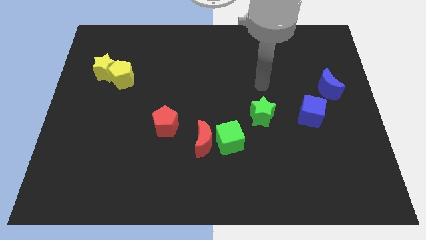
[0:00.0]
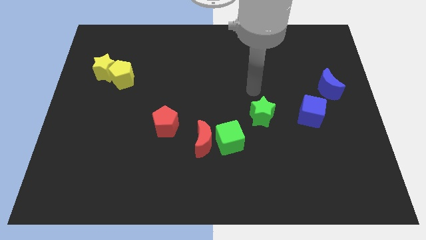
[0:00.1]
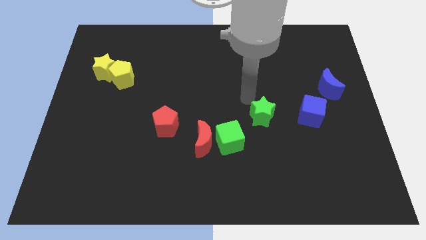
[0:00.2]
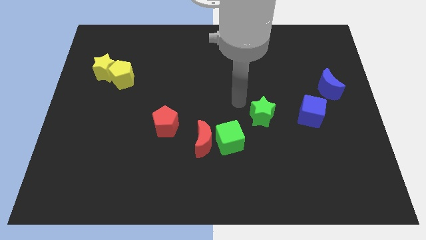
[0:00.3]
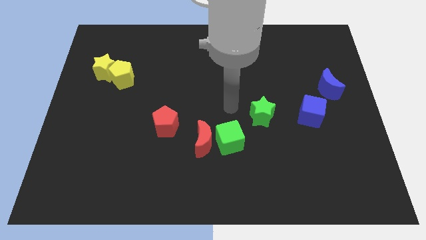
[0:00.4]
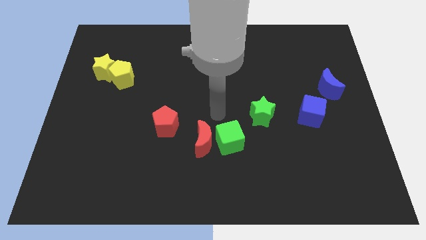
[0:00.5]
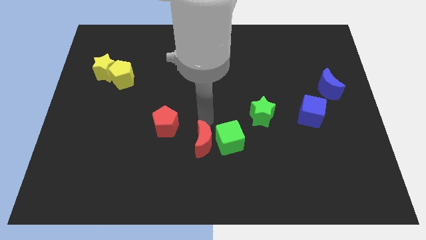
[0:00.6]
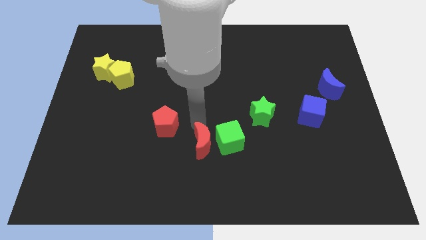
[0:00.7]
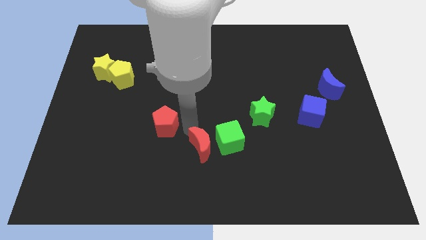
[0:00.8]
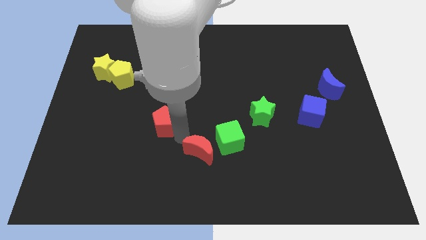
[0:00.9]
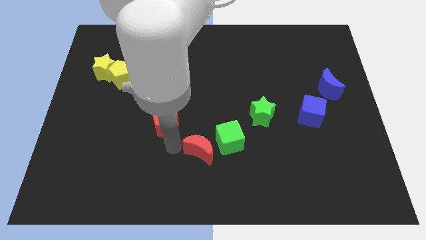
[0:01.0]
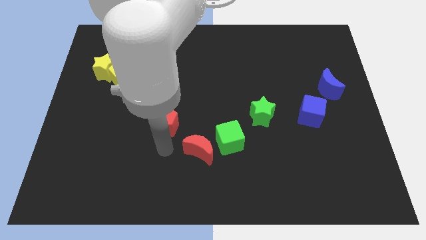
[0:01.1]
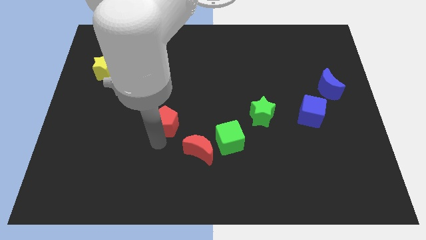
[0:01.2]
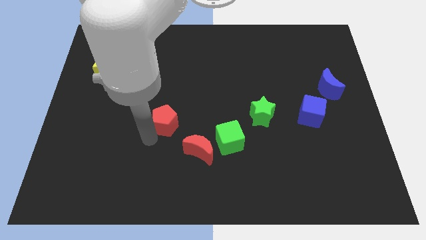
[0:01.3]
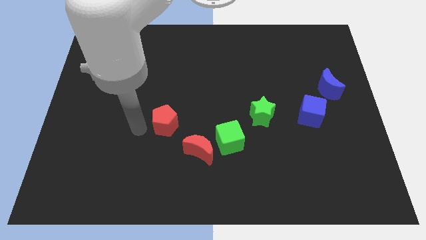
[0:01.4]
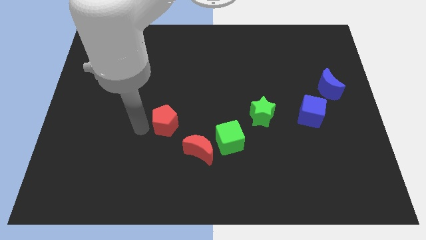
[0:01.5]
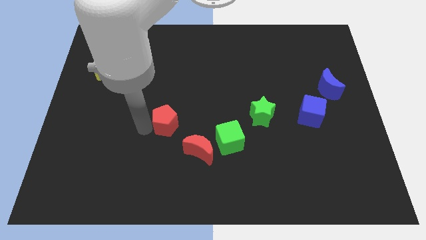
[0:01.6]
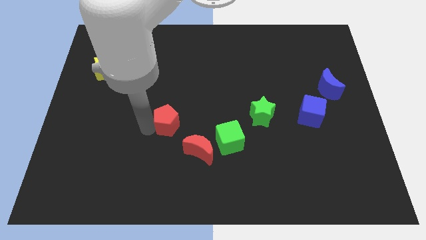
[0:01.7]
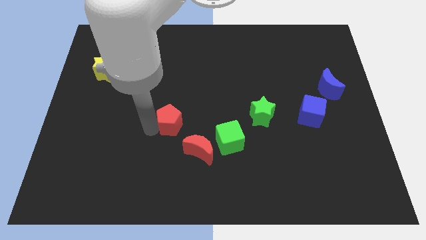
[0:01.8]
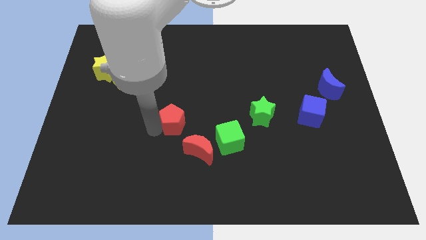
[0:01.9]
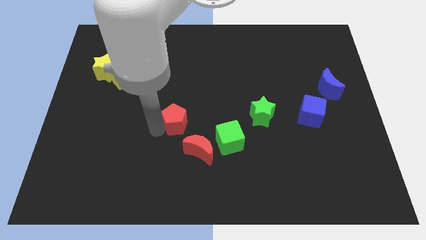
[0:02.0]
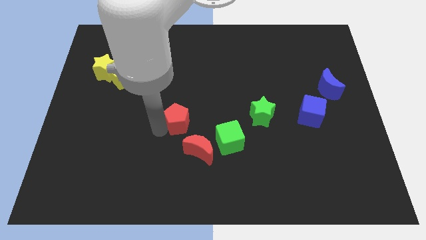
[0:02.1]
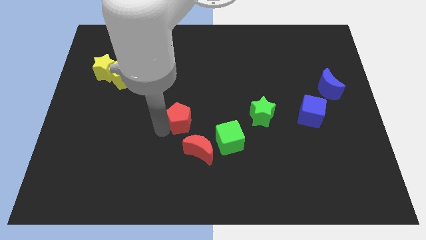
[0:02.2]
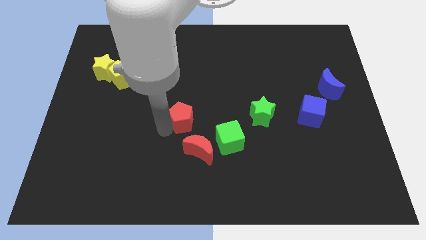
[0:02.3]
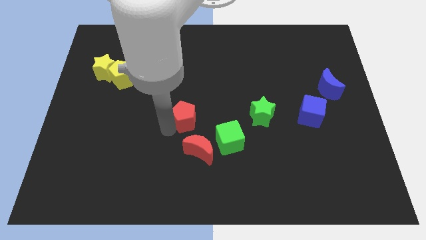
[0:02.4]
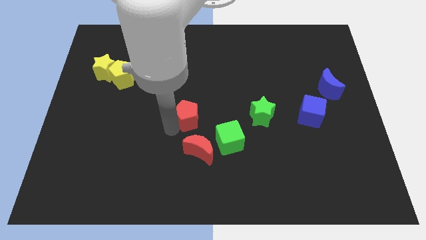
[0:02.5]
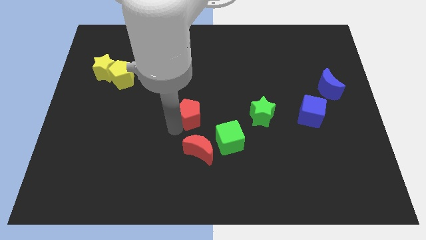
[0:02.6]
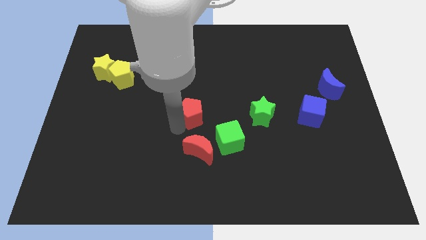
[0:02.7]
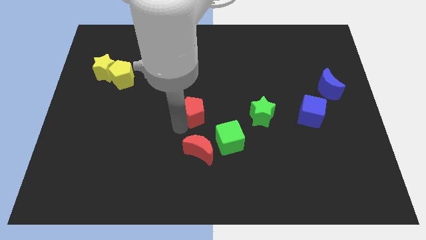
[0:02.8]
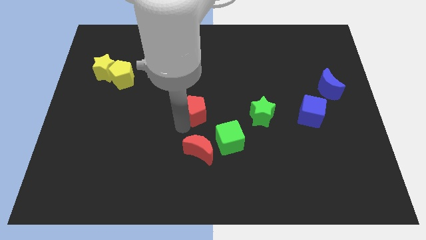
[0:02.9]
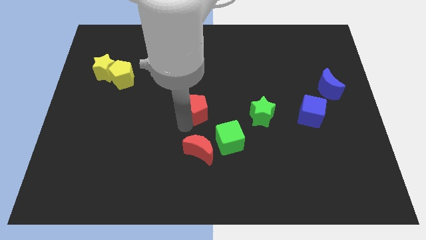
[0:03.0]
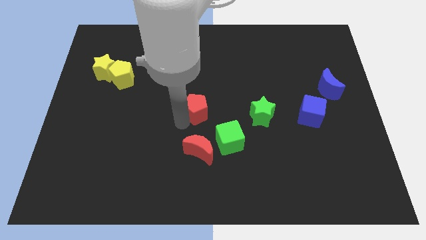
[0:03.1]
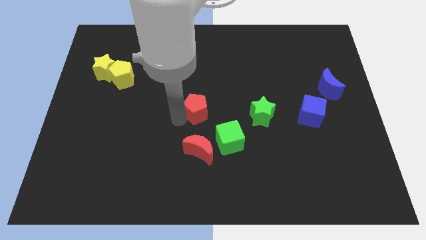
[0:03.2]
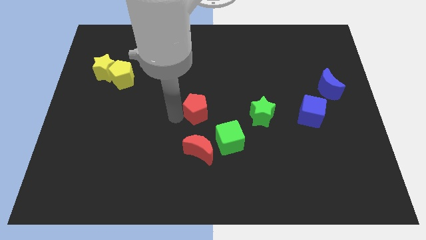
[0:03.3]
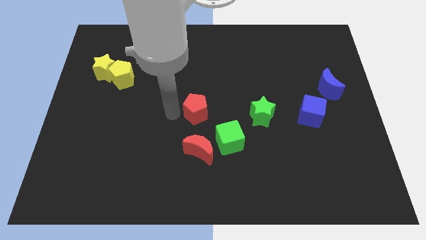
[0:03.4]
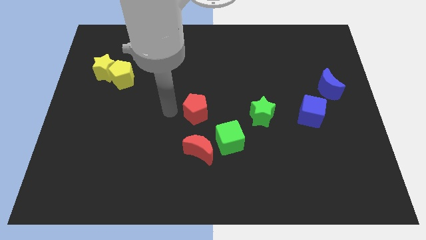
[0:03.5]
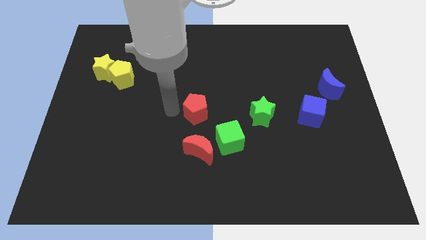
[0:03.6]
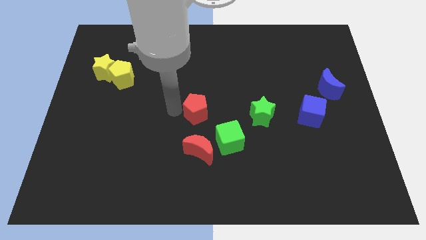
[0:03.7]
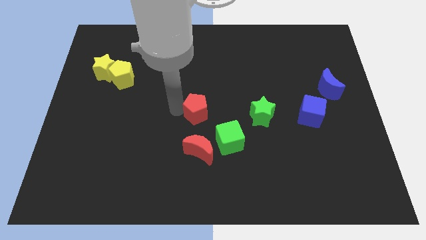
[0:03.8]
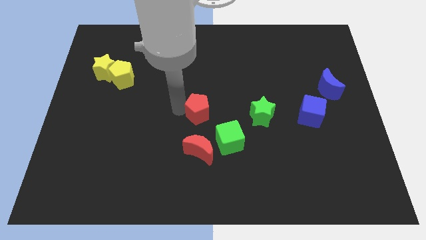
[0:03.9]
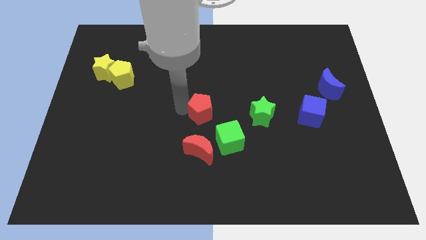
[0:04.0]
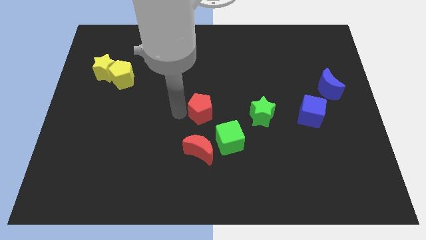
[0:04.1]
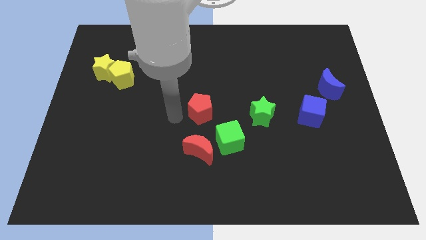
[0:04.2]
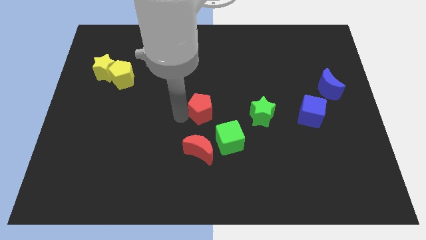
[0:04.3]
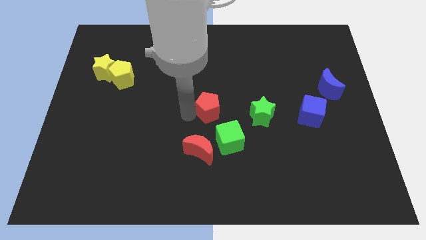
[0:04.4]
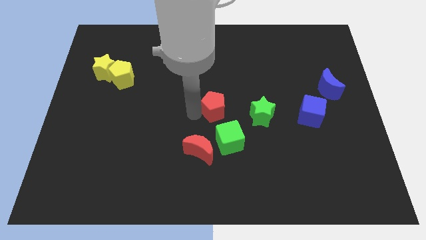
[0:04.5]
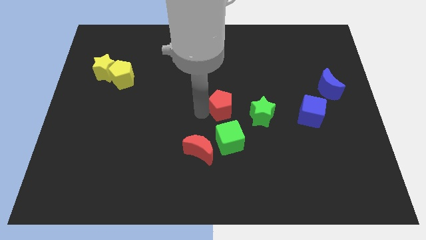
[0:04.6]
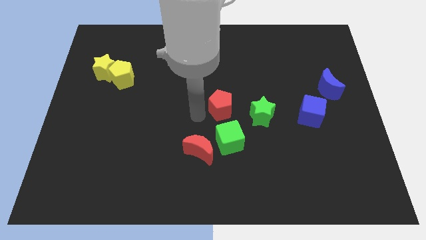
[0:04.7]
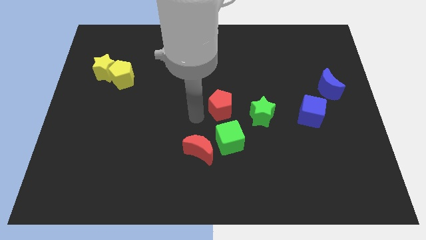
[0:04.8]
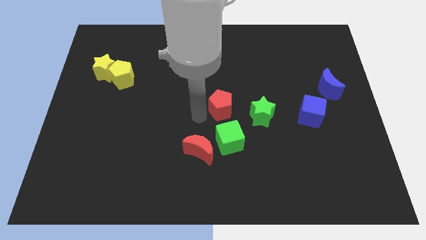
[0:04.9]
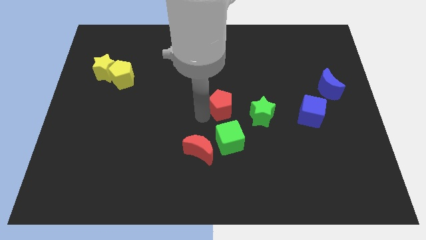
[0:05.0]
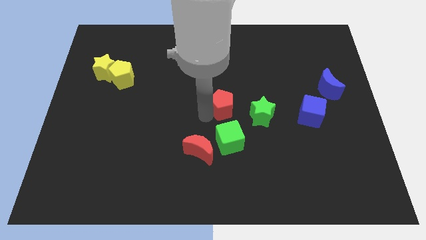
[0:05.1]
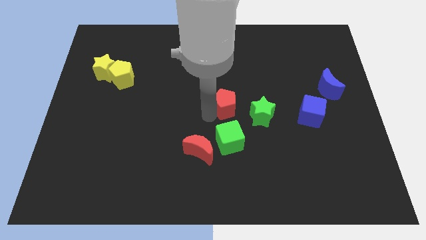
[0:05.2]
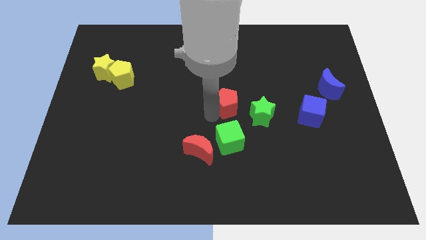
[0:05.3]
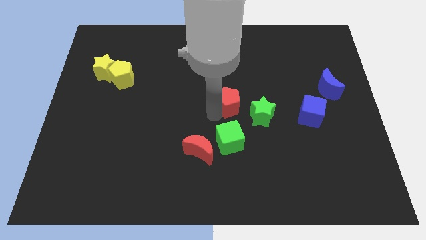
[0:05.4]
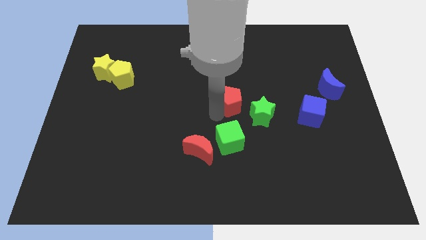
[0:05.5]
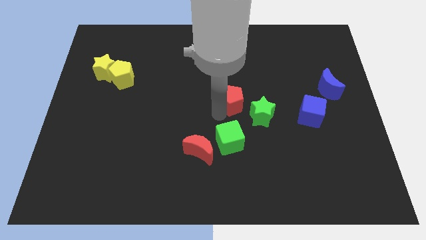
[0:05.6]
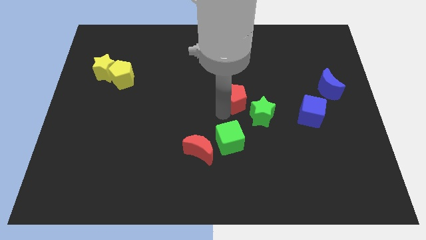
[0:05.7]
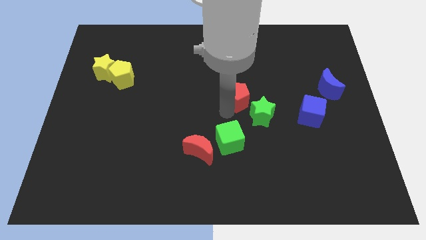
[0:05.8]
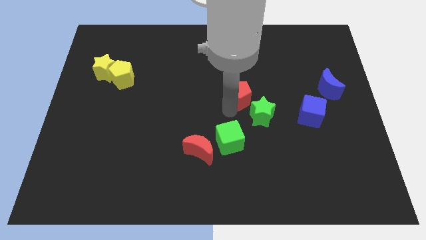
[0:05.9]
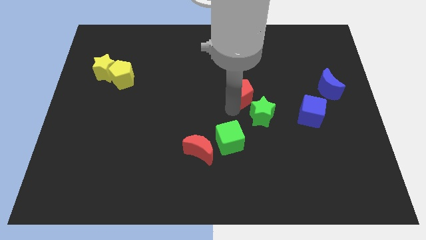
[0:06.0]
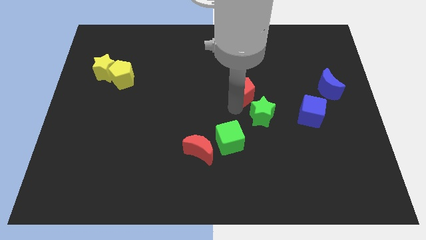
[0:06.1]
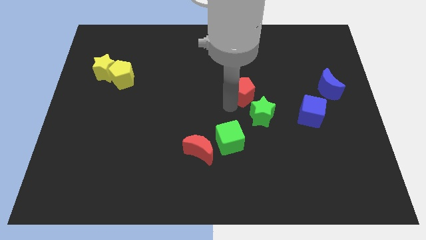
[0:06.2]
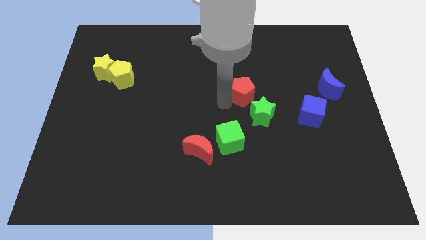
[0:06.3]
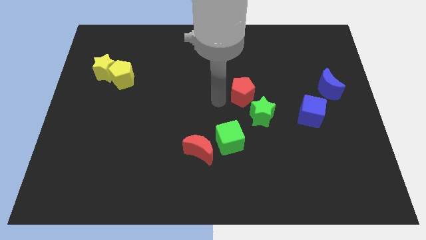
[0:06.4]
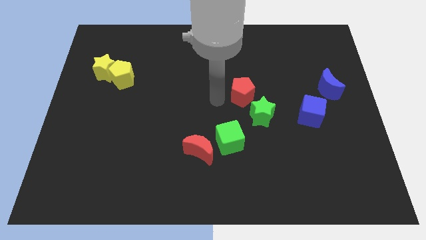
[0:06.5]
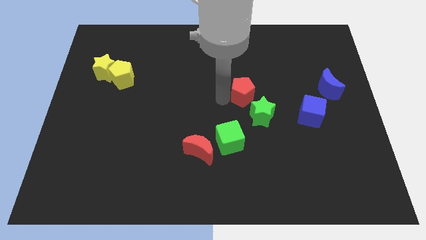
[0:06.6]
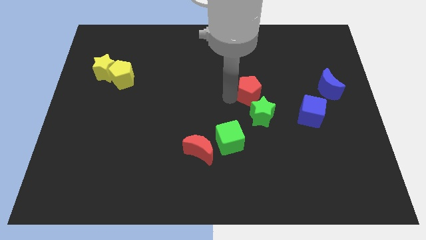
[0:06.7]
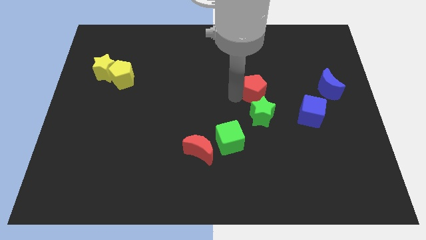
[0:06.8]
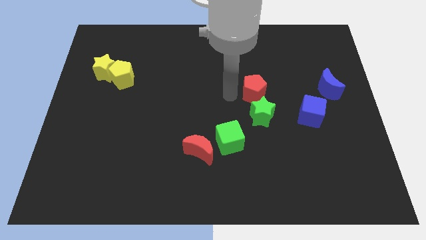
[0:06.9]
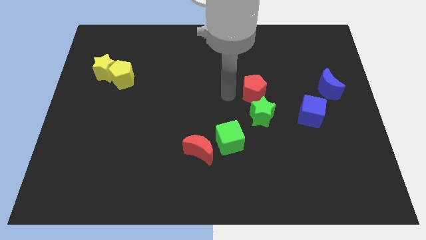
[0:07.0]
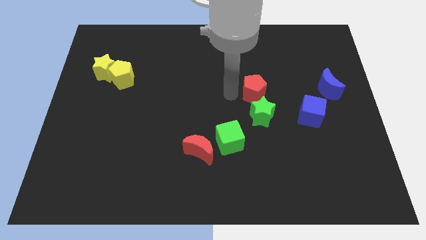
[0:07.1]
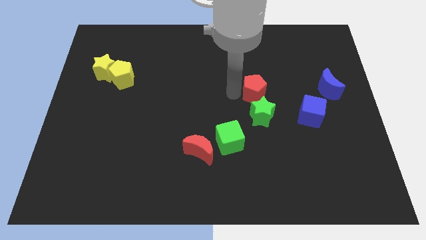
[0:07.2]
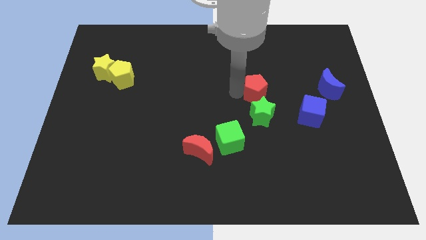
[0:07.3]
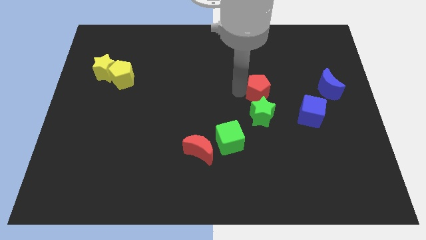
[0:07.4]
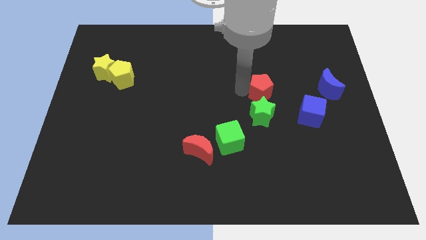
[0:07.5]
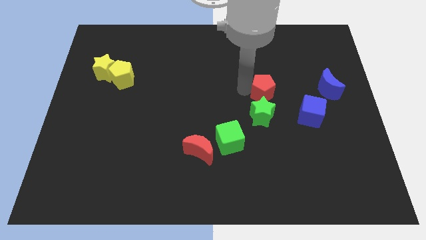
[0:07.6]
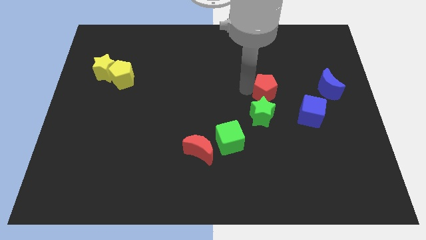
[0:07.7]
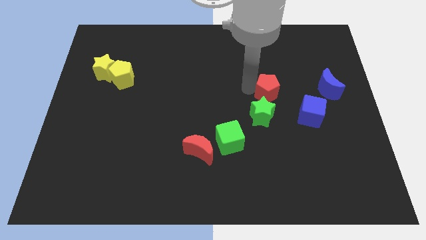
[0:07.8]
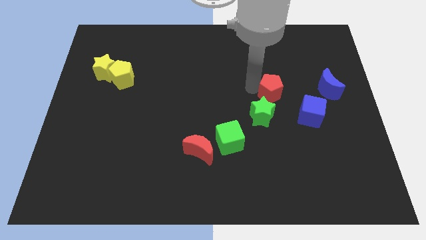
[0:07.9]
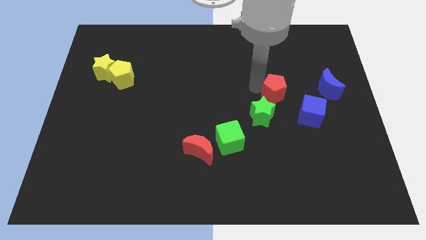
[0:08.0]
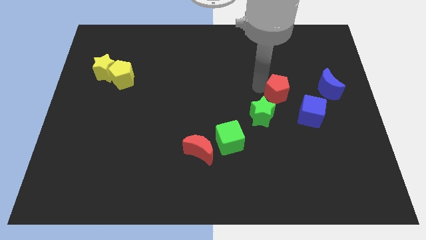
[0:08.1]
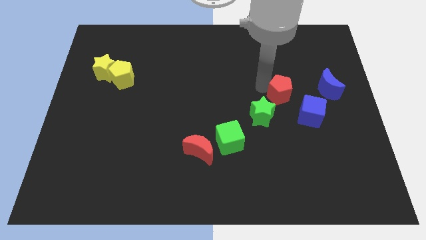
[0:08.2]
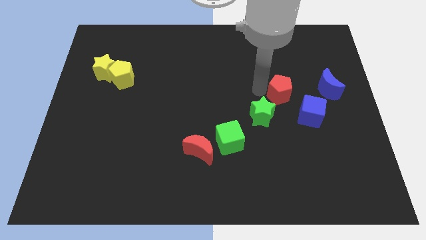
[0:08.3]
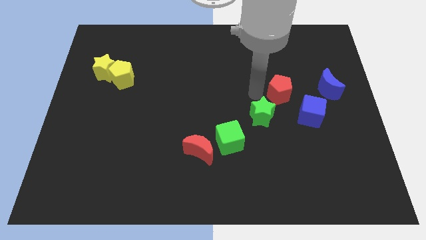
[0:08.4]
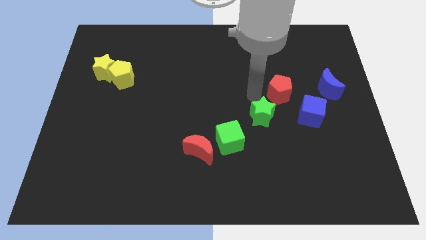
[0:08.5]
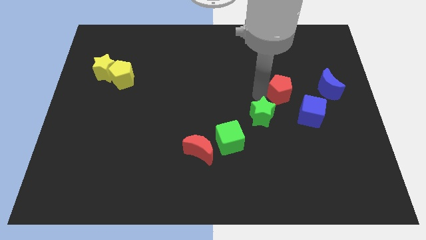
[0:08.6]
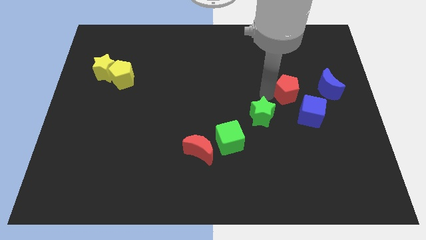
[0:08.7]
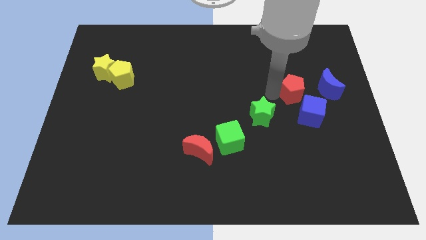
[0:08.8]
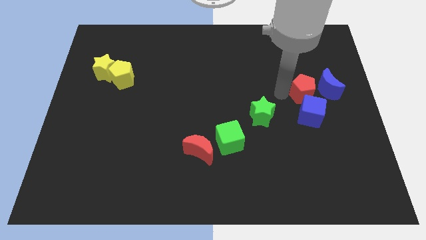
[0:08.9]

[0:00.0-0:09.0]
slide the red pentagon towards the blue moon
